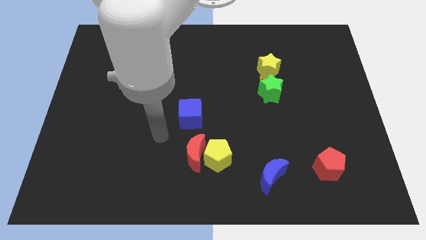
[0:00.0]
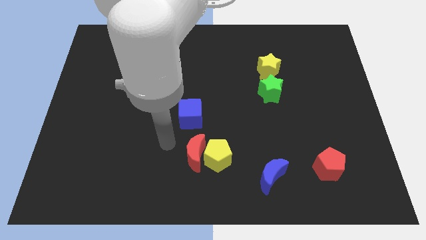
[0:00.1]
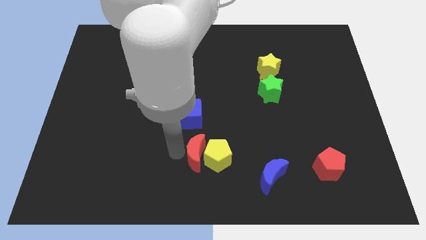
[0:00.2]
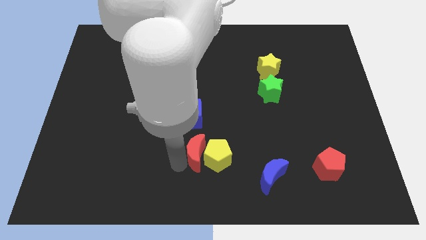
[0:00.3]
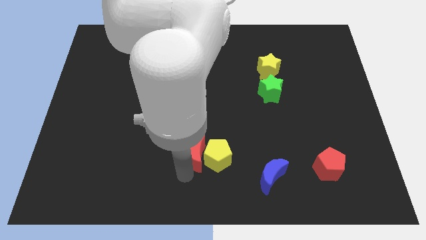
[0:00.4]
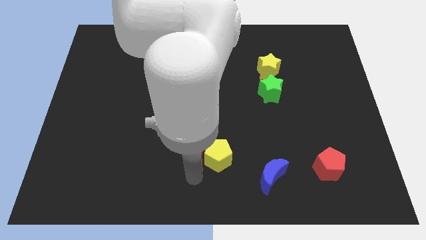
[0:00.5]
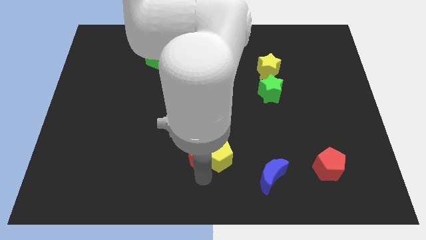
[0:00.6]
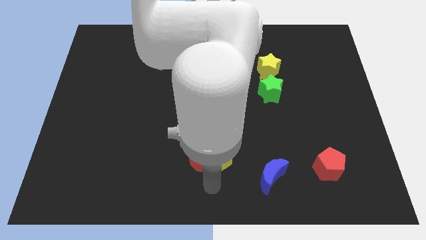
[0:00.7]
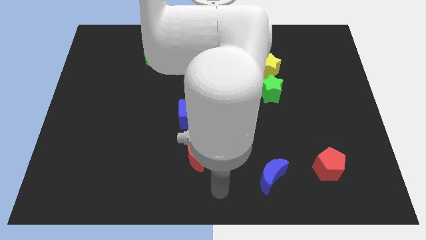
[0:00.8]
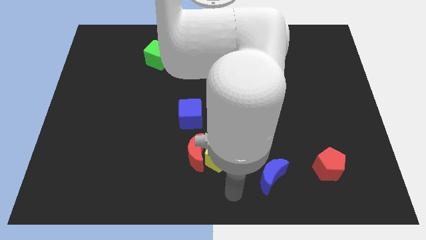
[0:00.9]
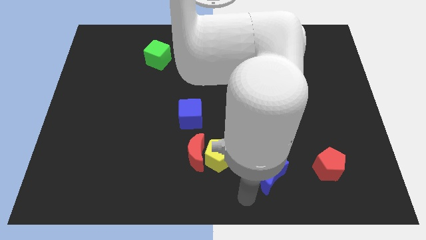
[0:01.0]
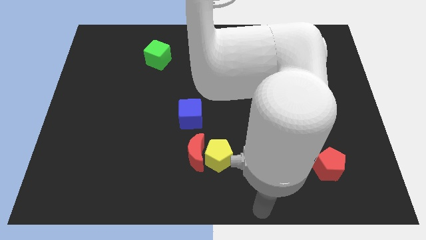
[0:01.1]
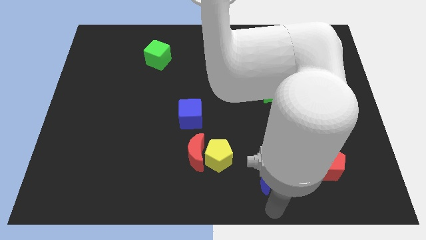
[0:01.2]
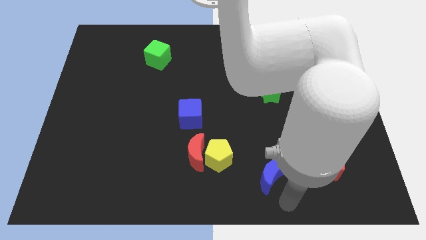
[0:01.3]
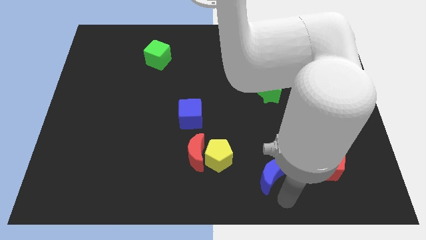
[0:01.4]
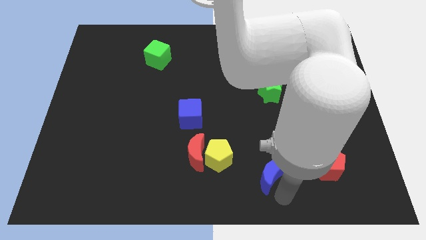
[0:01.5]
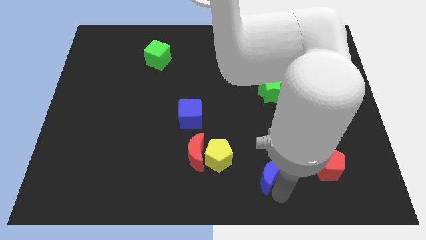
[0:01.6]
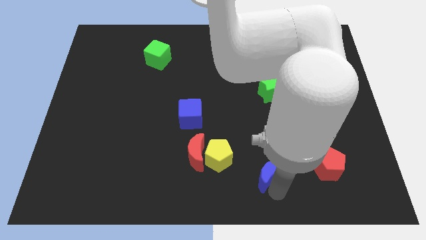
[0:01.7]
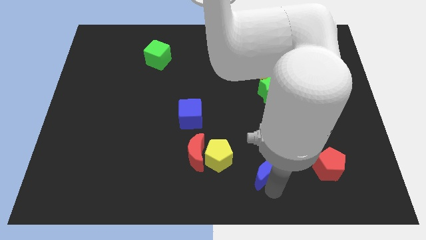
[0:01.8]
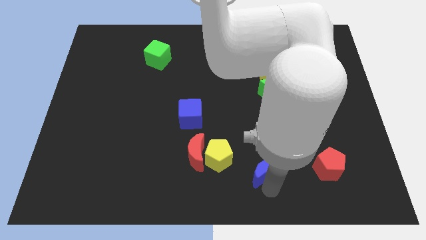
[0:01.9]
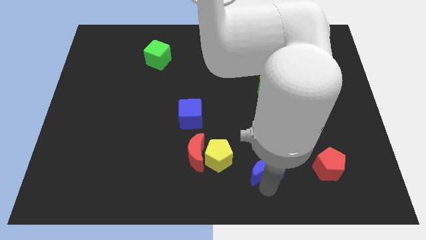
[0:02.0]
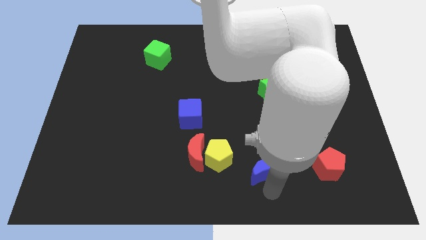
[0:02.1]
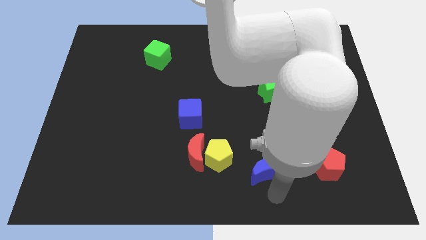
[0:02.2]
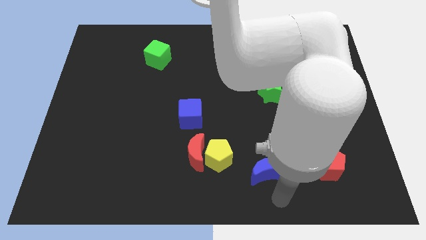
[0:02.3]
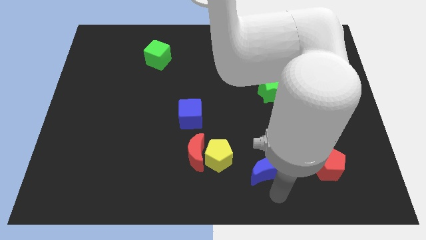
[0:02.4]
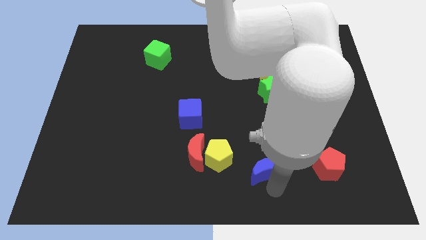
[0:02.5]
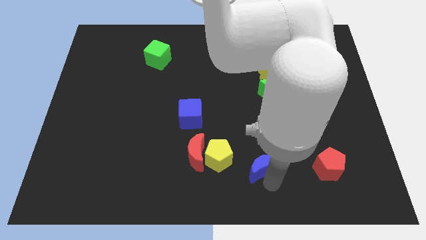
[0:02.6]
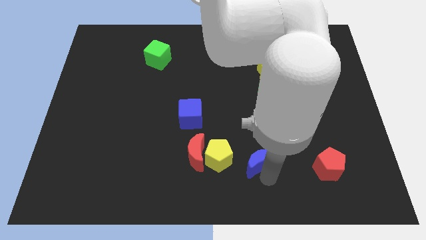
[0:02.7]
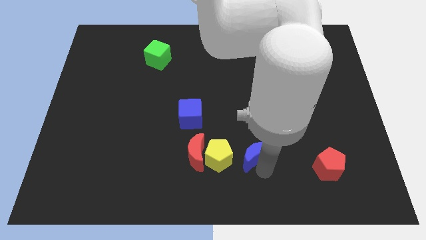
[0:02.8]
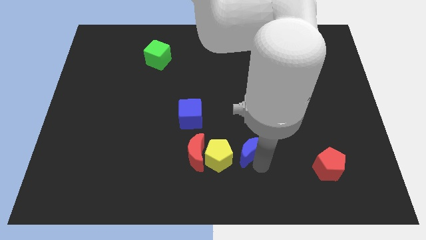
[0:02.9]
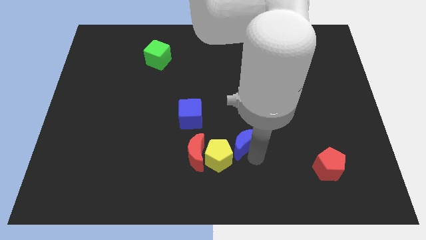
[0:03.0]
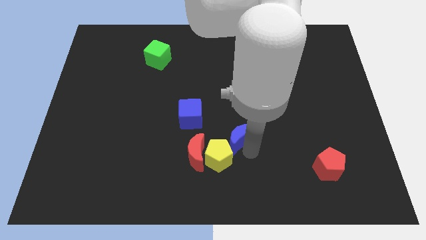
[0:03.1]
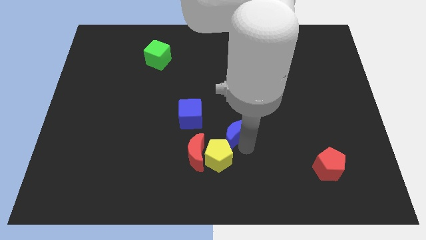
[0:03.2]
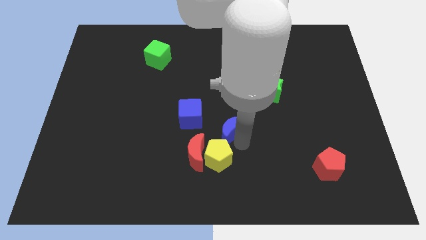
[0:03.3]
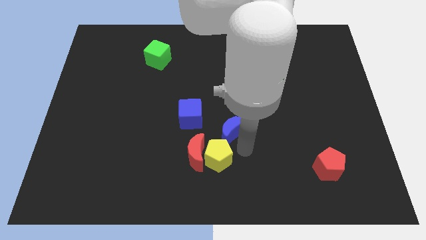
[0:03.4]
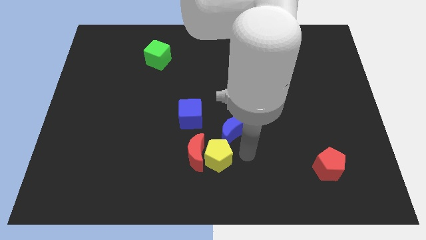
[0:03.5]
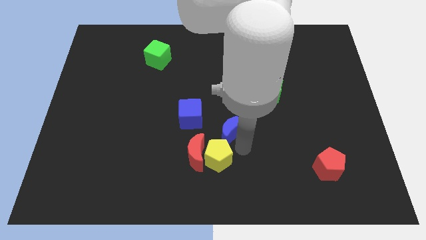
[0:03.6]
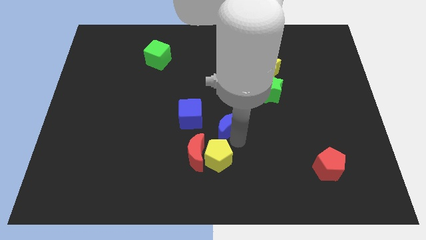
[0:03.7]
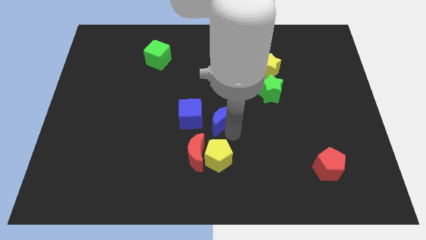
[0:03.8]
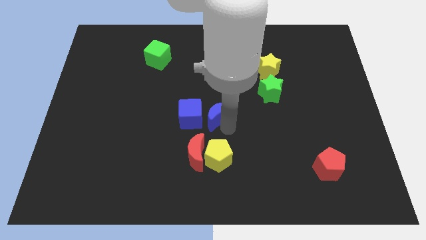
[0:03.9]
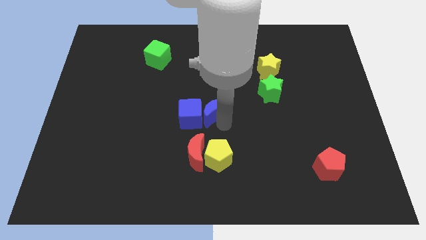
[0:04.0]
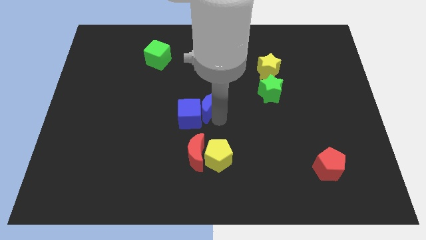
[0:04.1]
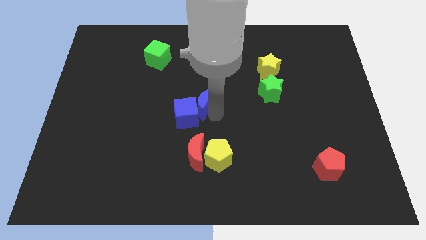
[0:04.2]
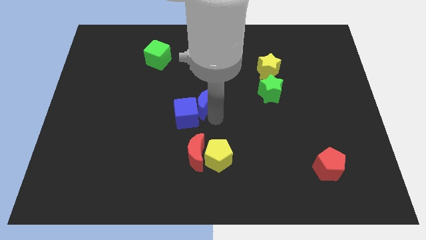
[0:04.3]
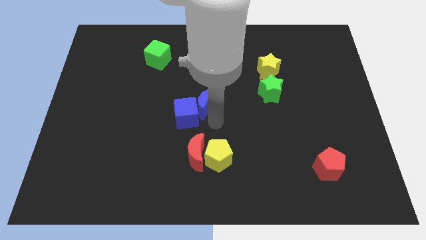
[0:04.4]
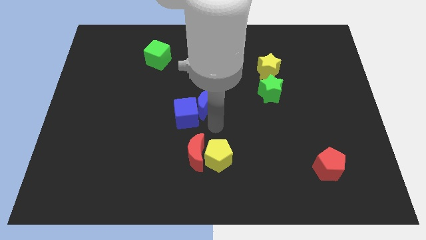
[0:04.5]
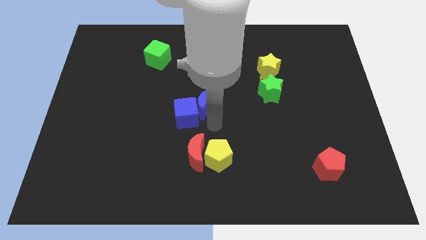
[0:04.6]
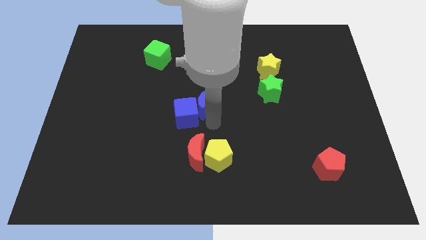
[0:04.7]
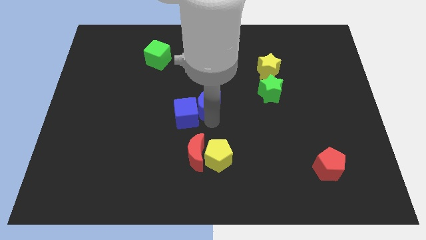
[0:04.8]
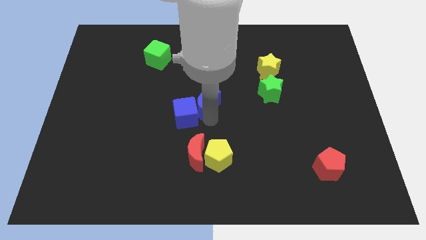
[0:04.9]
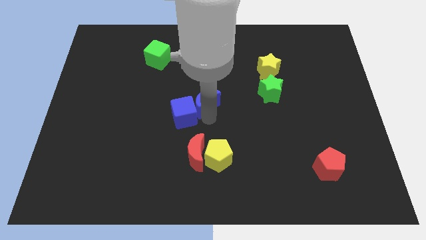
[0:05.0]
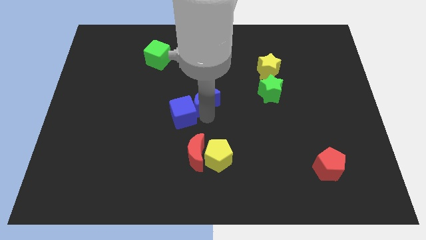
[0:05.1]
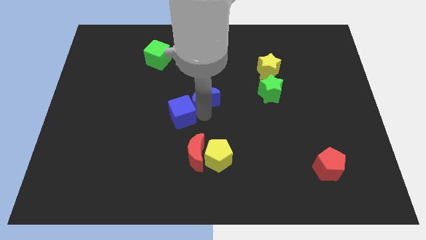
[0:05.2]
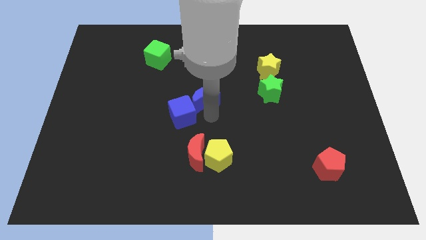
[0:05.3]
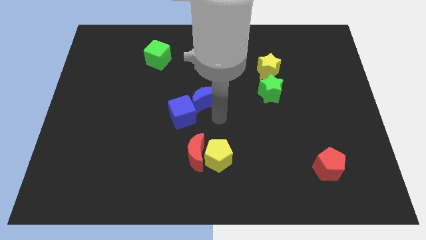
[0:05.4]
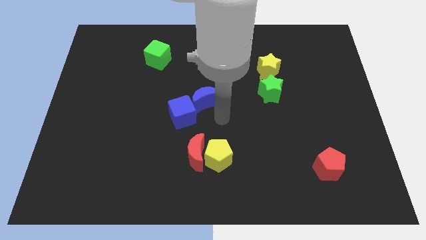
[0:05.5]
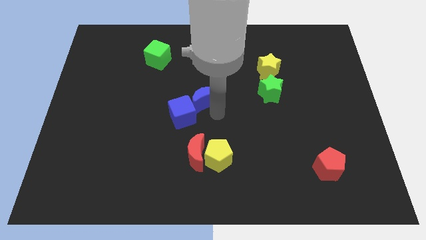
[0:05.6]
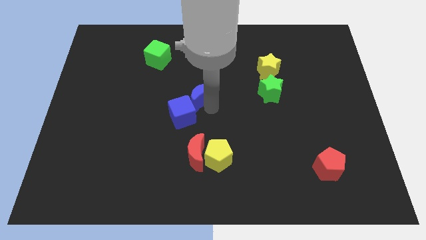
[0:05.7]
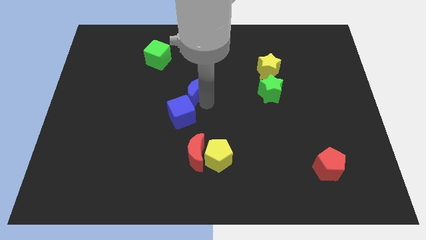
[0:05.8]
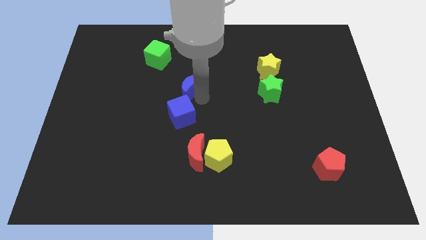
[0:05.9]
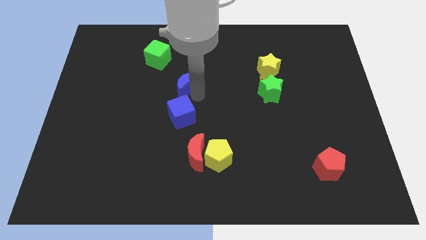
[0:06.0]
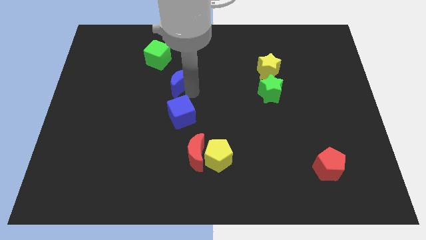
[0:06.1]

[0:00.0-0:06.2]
move the blue moon to the bottom right of the green cube
